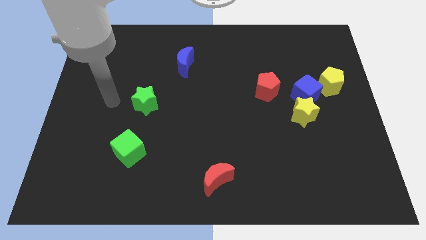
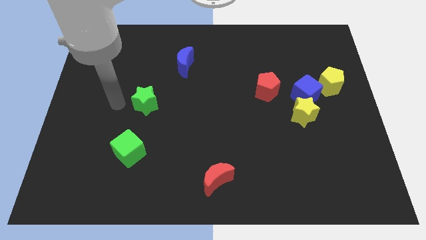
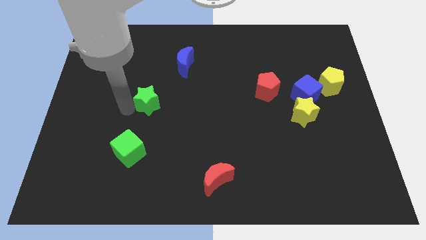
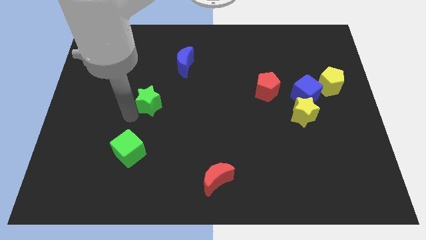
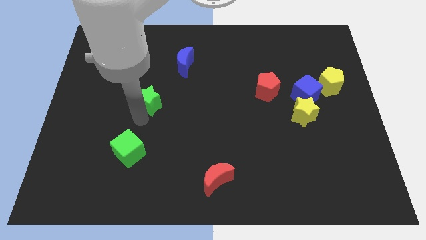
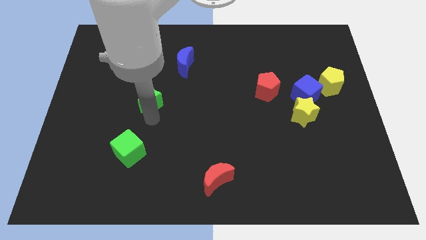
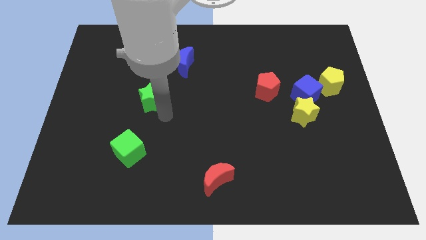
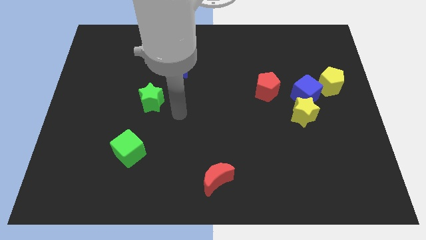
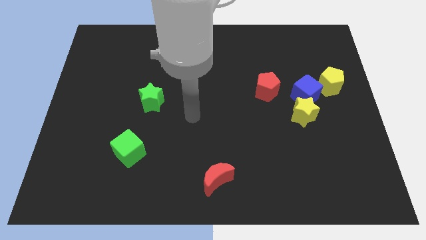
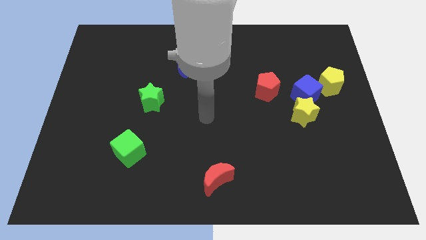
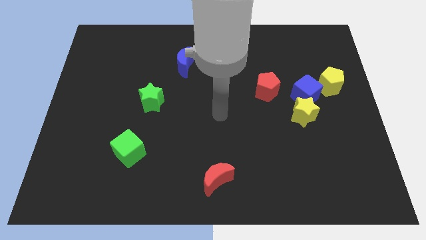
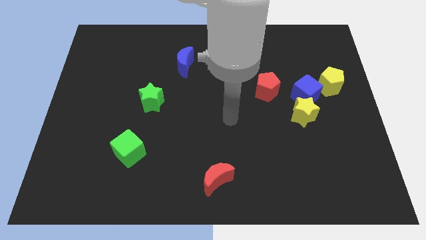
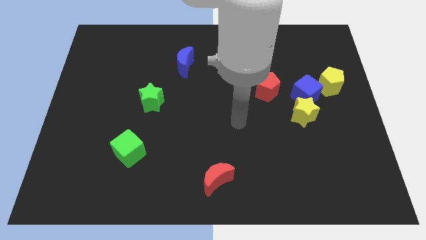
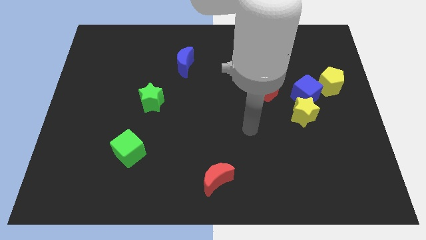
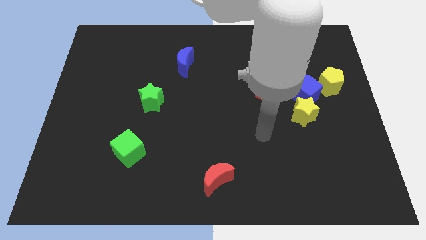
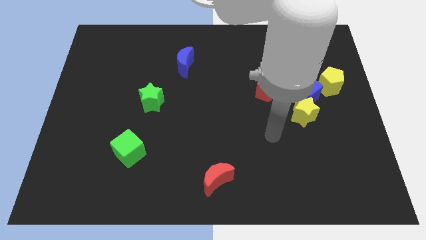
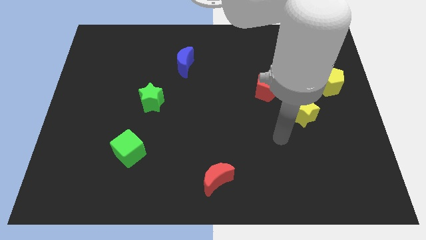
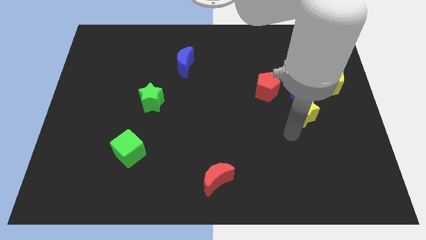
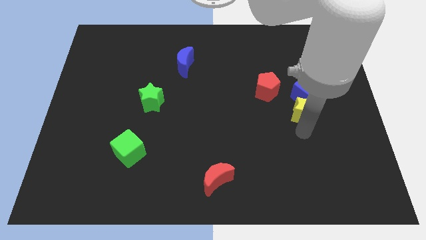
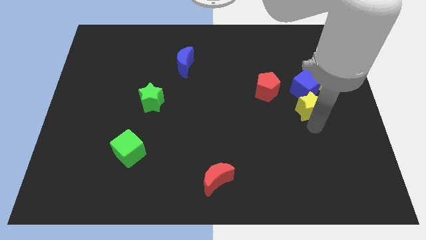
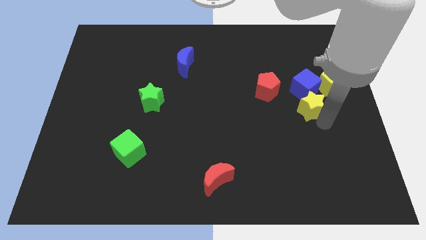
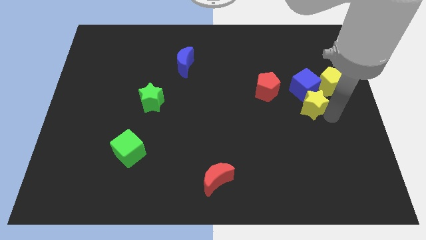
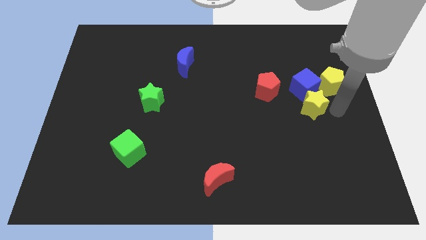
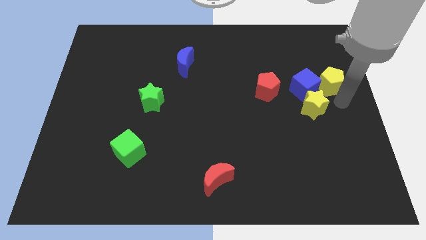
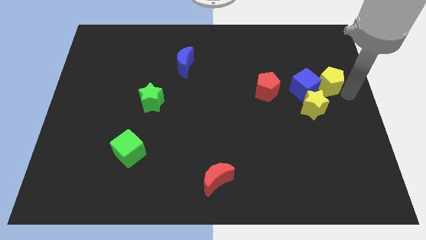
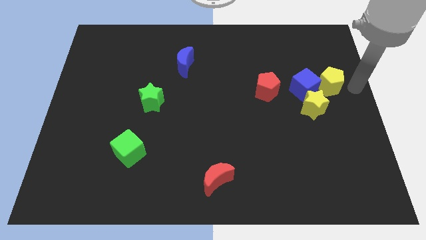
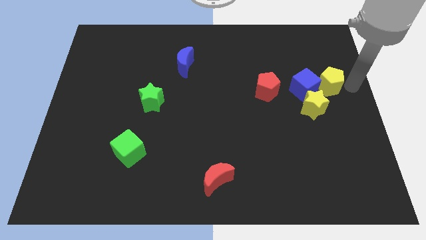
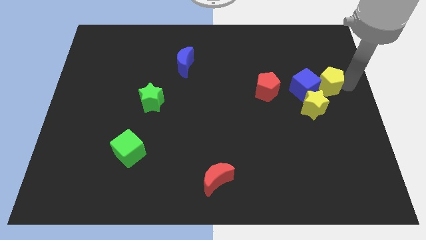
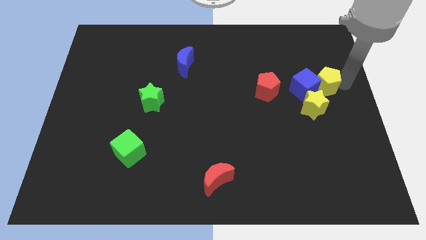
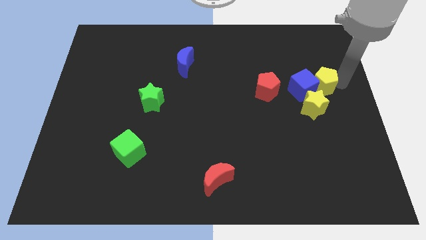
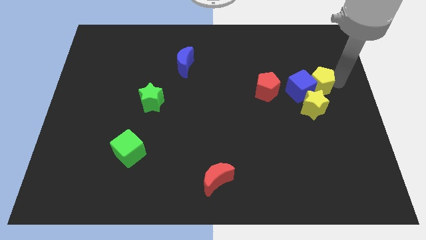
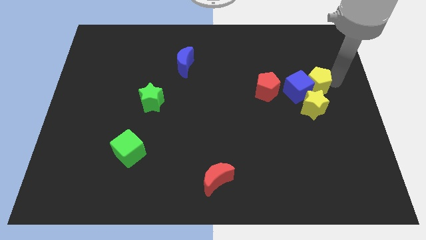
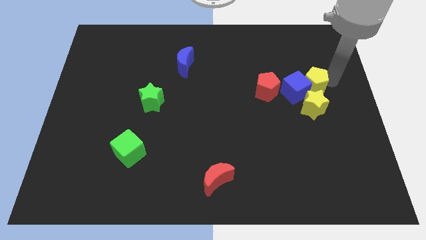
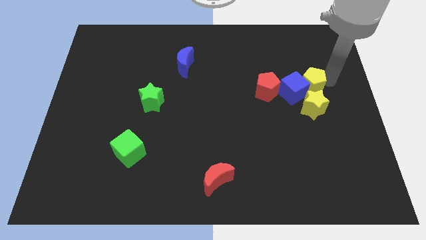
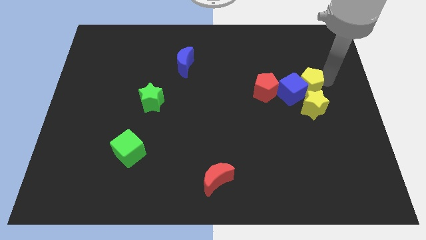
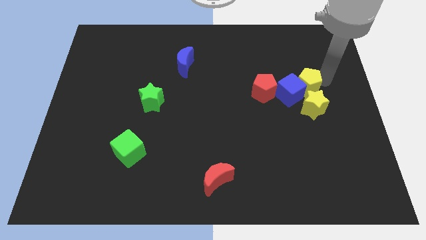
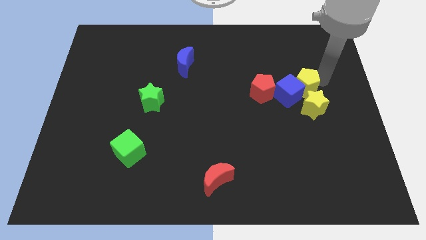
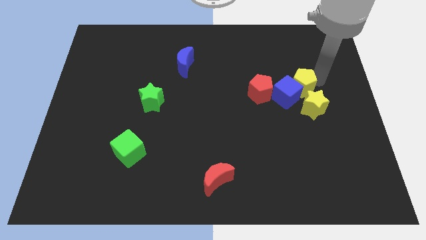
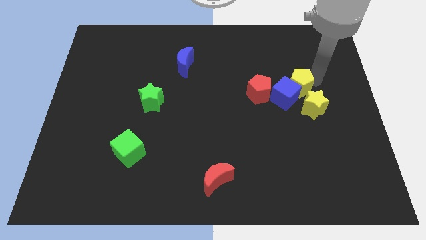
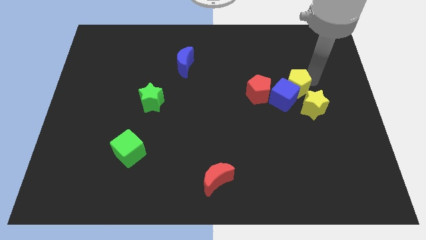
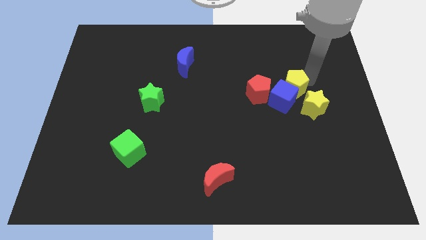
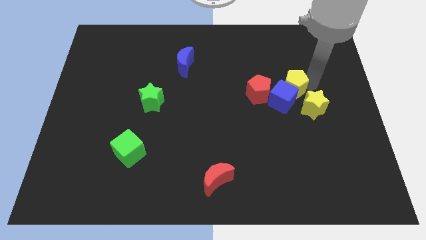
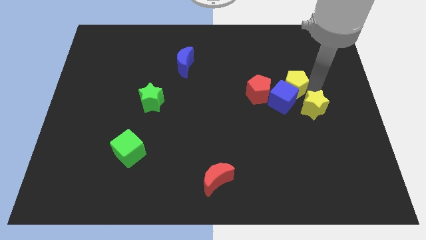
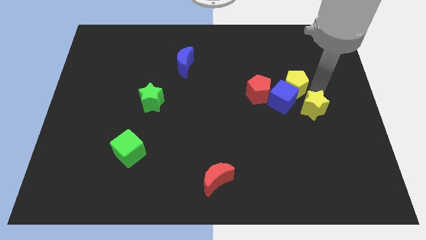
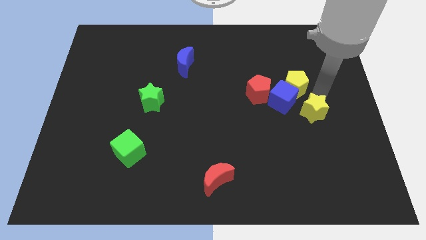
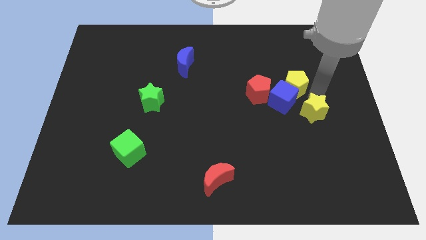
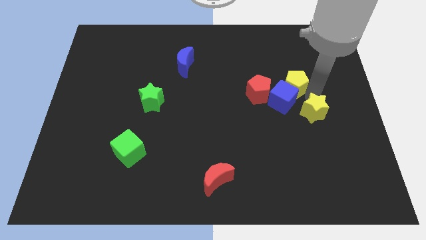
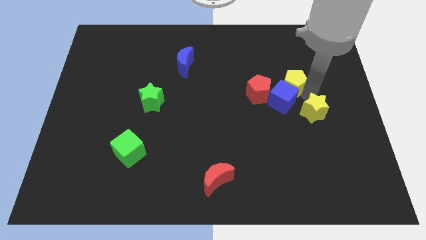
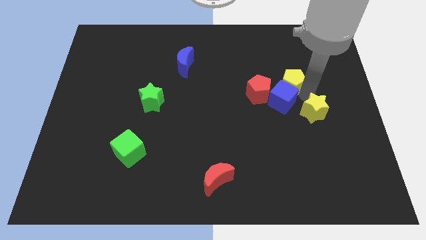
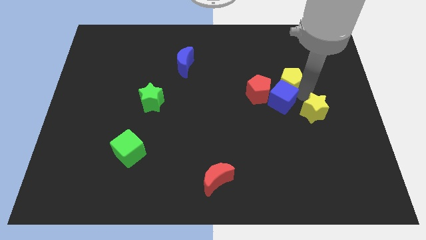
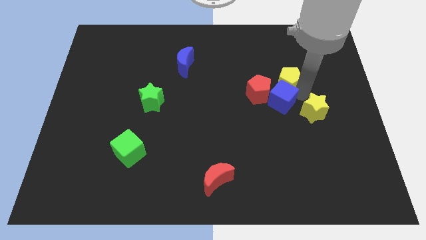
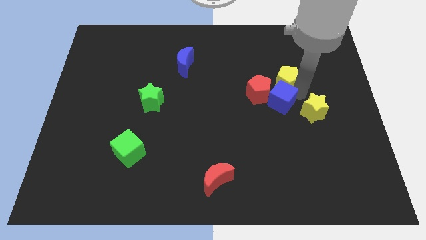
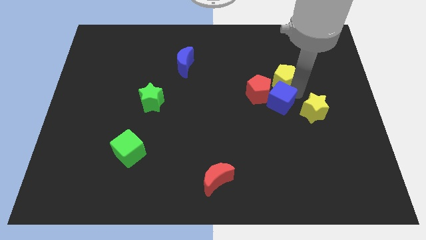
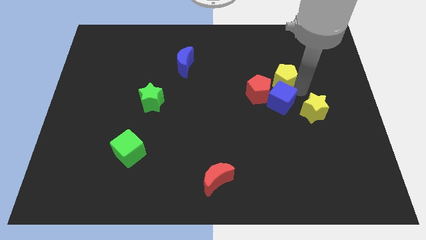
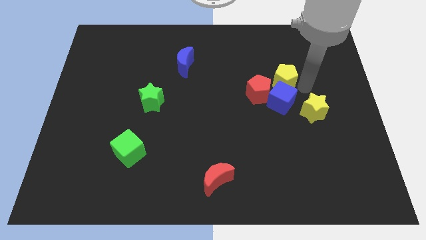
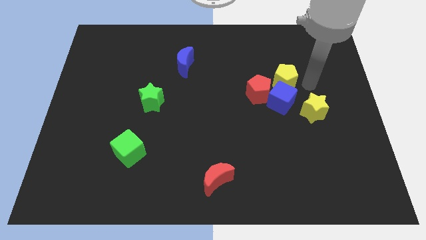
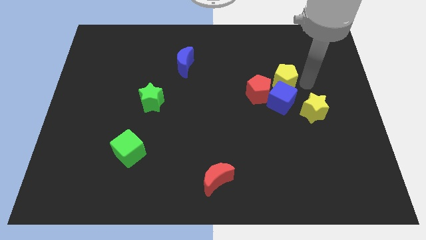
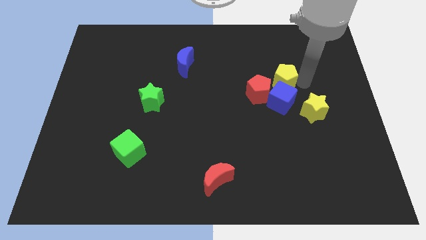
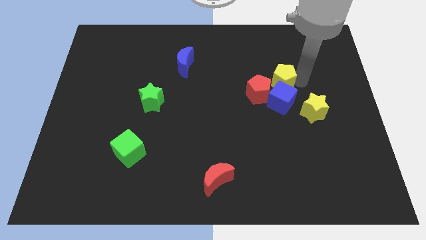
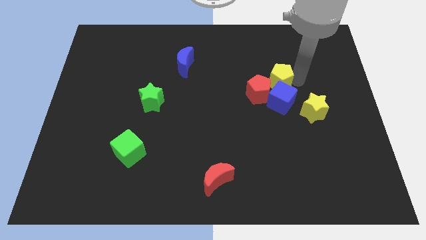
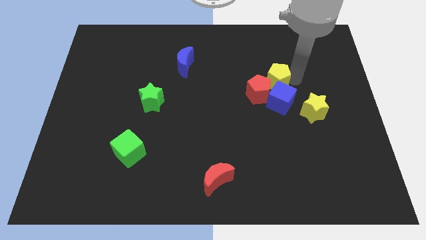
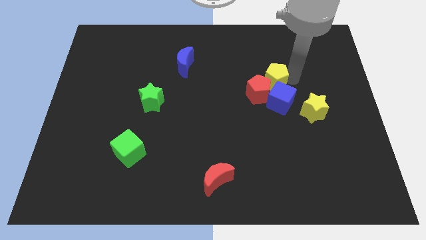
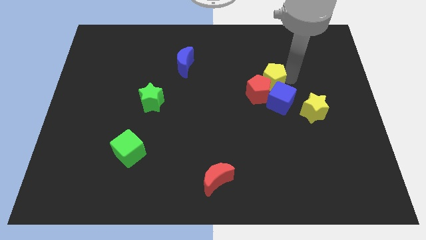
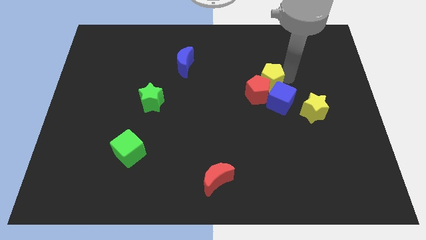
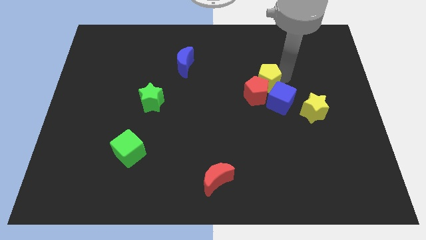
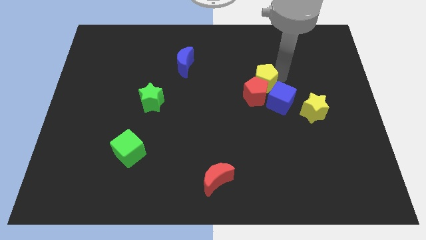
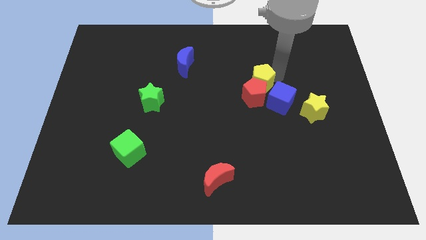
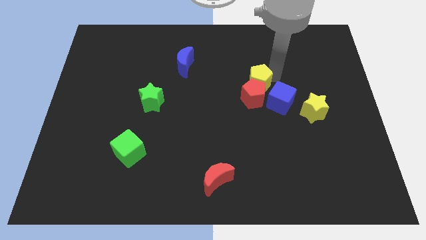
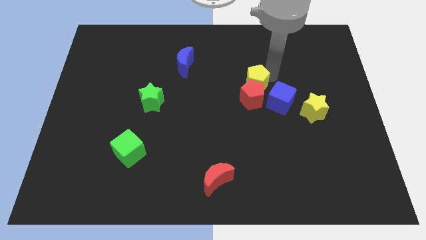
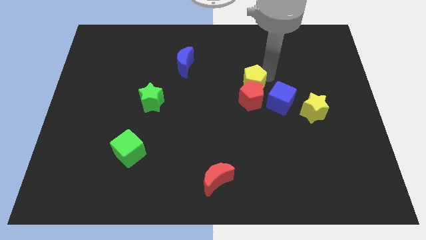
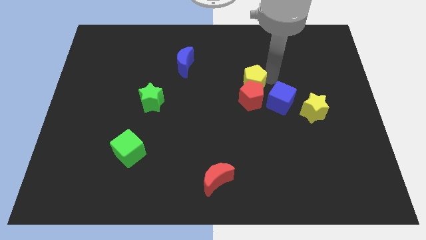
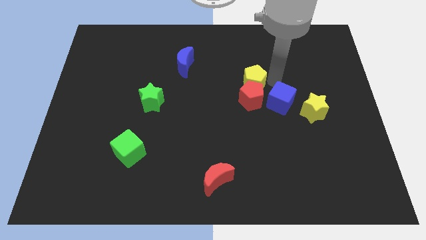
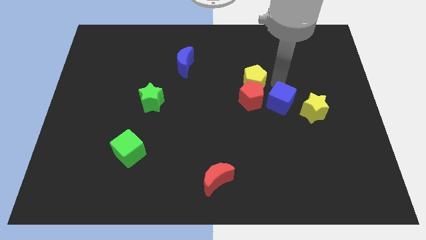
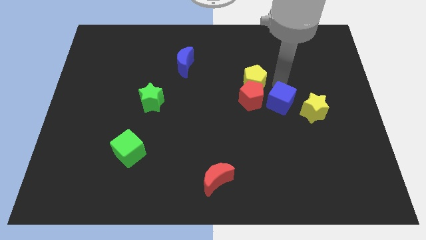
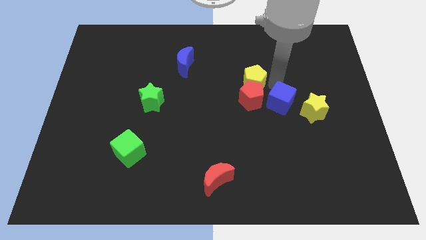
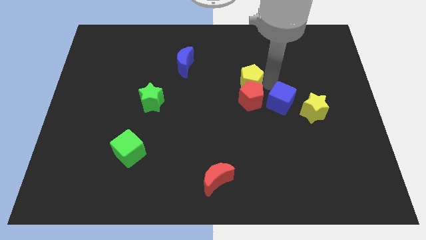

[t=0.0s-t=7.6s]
slide the yellow pentagon left

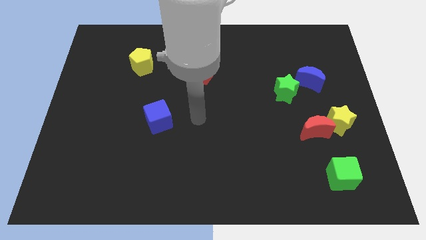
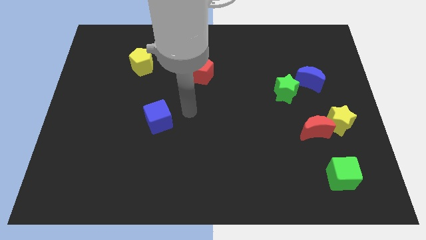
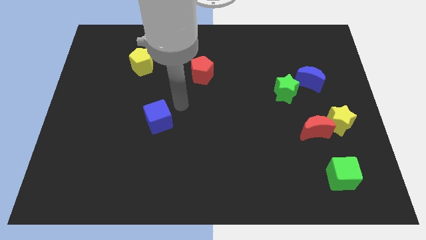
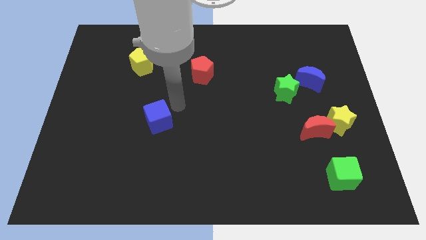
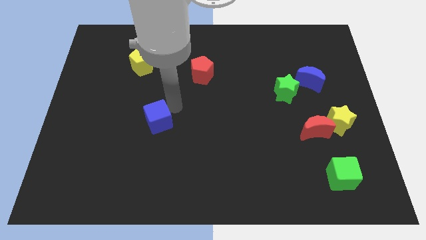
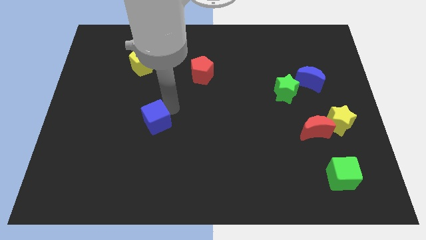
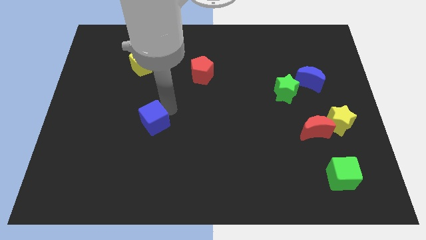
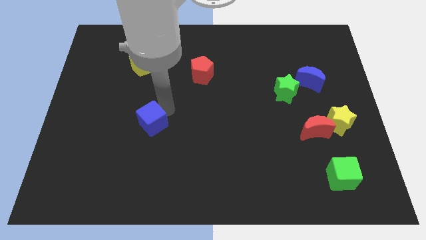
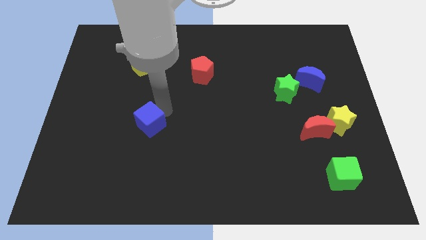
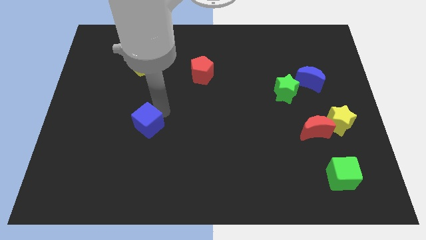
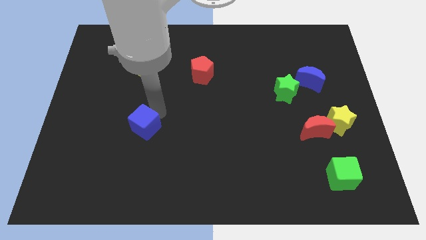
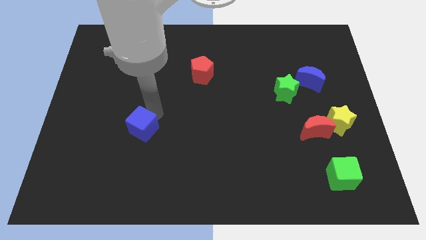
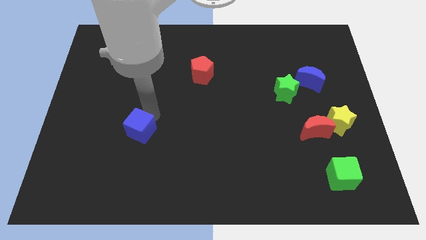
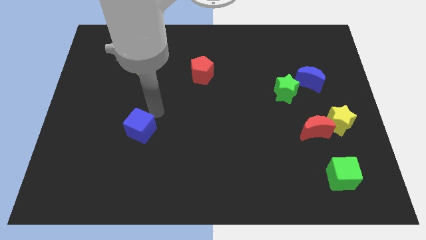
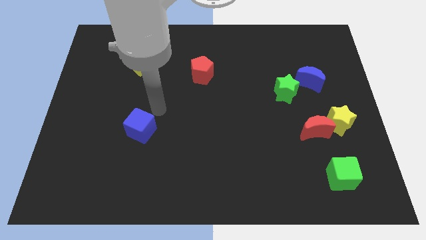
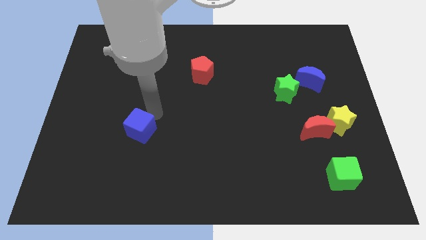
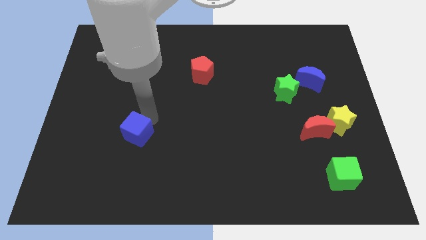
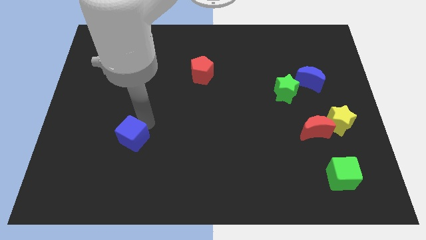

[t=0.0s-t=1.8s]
slide the blue cube downwards and left diagonally slightly
